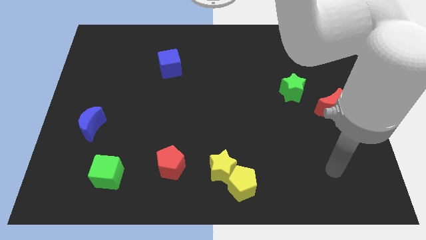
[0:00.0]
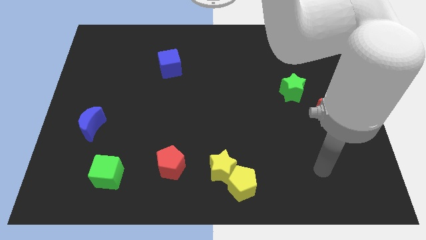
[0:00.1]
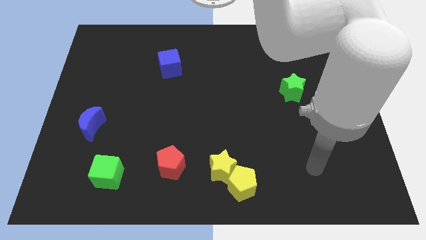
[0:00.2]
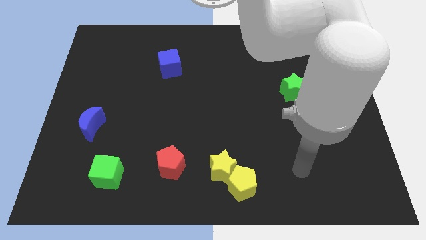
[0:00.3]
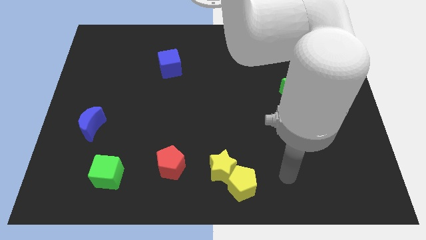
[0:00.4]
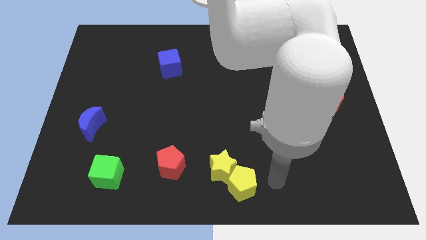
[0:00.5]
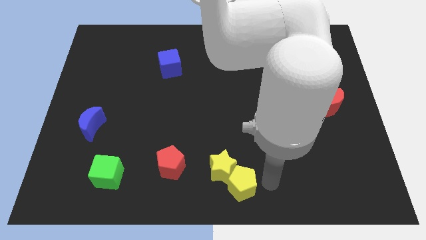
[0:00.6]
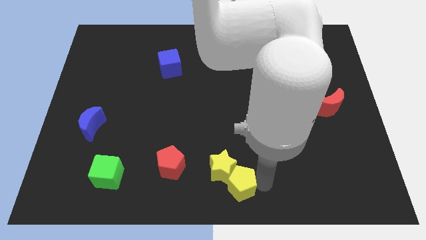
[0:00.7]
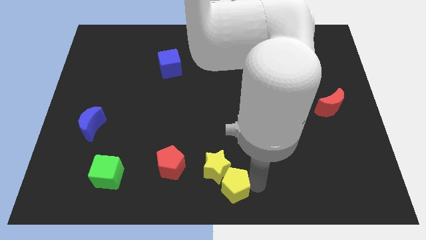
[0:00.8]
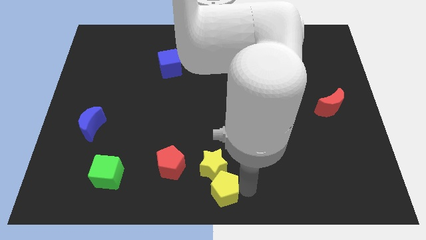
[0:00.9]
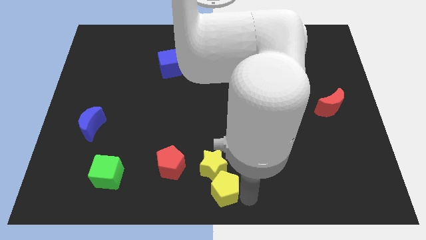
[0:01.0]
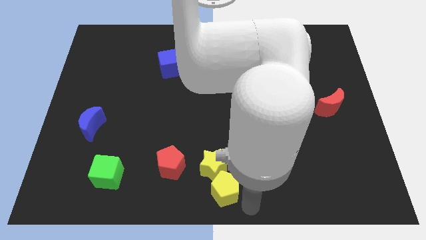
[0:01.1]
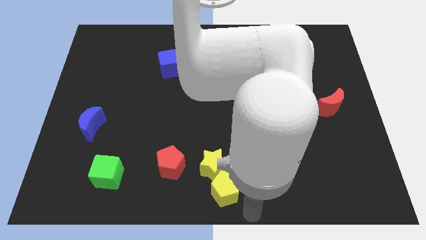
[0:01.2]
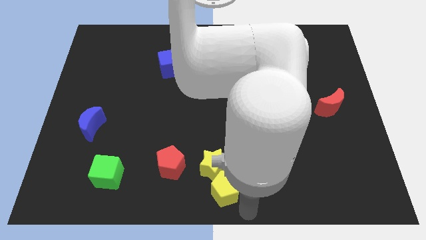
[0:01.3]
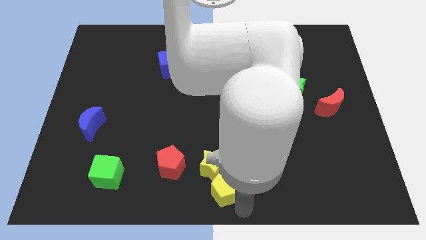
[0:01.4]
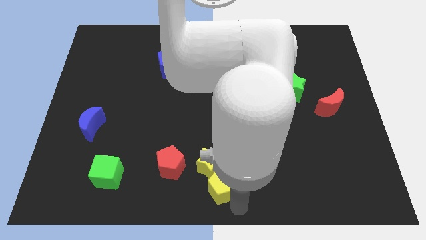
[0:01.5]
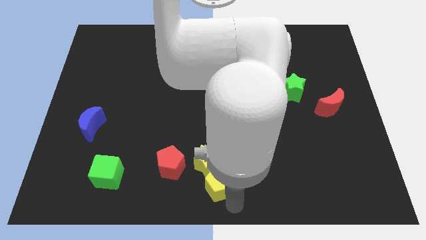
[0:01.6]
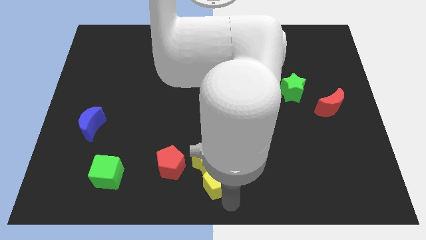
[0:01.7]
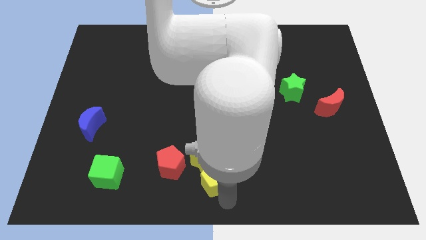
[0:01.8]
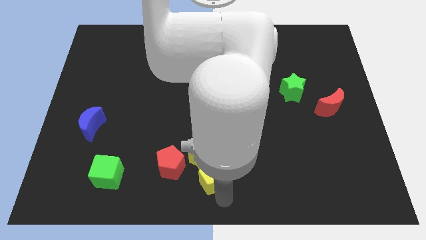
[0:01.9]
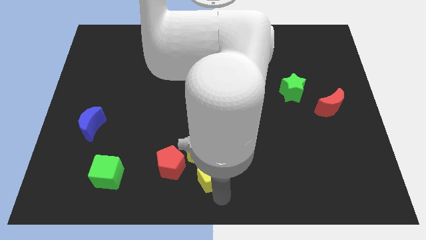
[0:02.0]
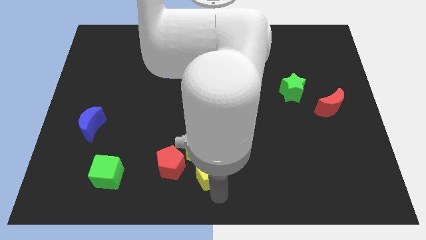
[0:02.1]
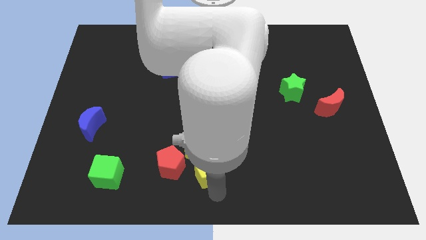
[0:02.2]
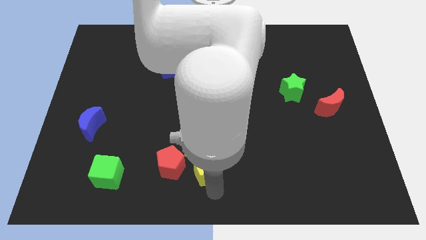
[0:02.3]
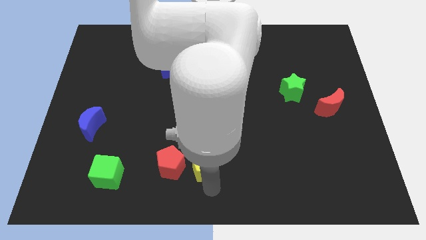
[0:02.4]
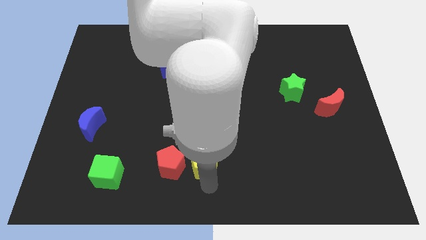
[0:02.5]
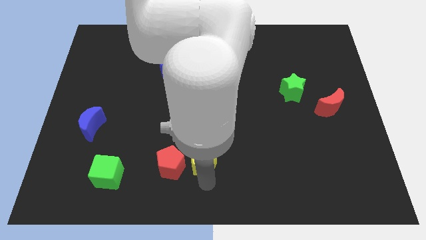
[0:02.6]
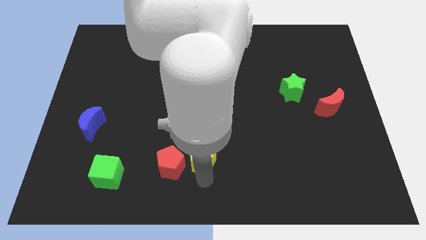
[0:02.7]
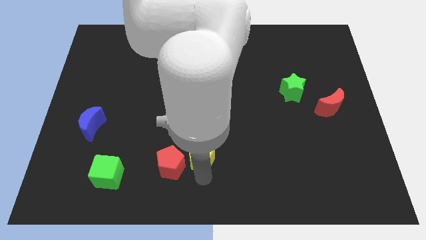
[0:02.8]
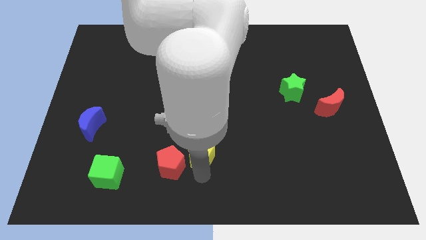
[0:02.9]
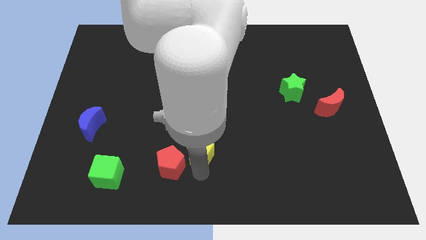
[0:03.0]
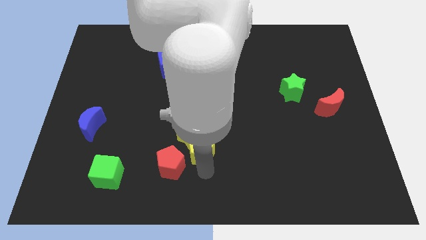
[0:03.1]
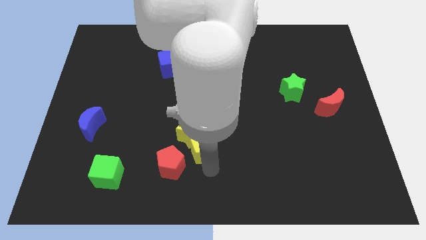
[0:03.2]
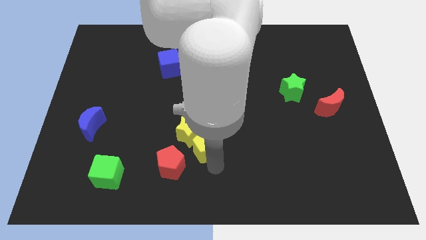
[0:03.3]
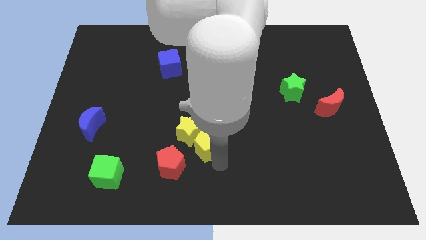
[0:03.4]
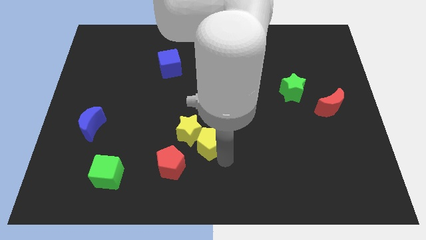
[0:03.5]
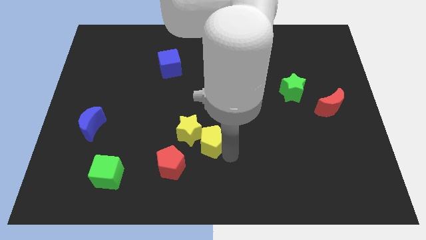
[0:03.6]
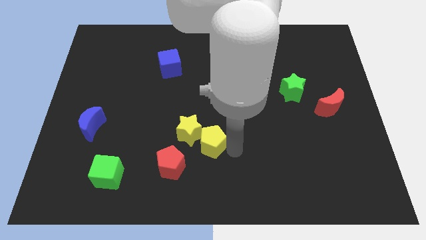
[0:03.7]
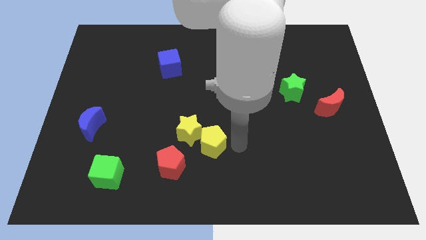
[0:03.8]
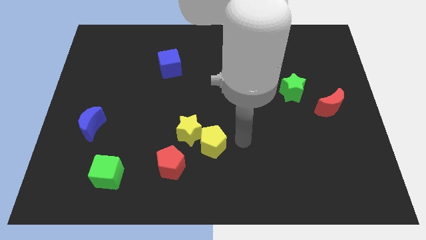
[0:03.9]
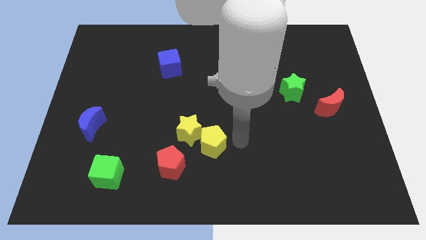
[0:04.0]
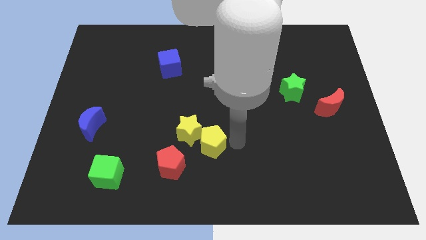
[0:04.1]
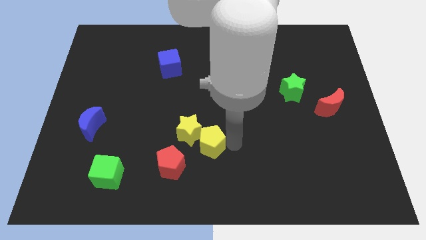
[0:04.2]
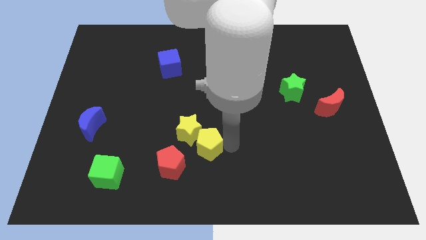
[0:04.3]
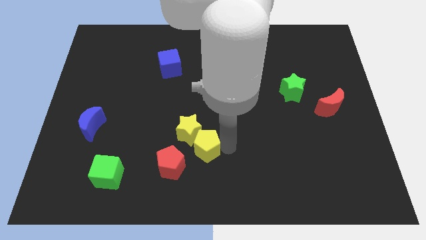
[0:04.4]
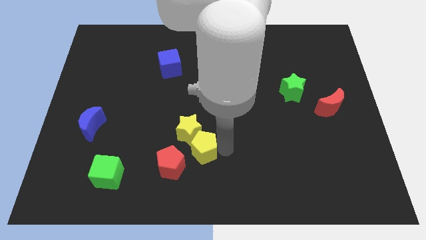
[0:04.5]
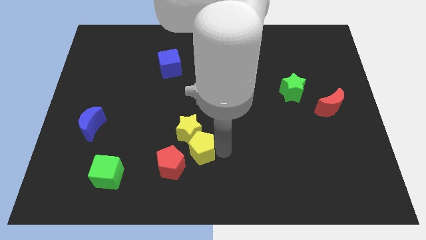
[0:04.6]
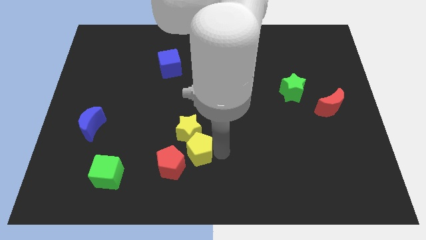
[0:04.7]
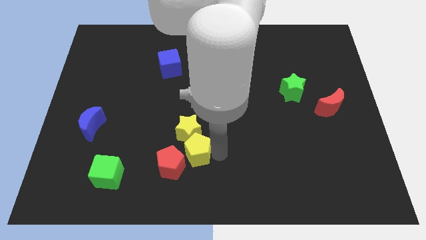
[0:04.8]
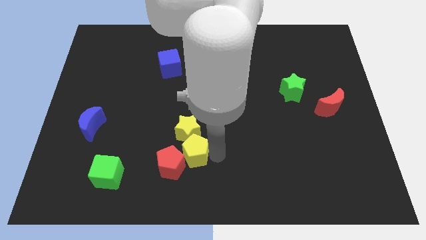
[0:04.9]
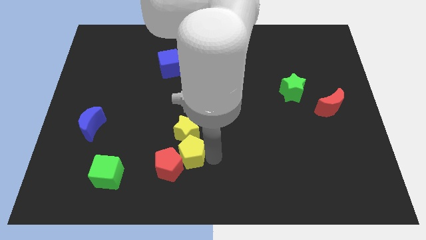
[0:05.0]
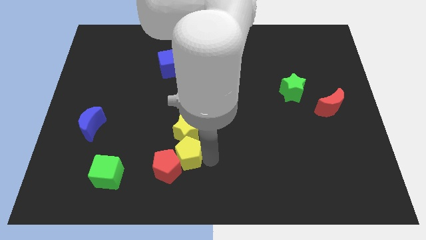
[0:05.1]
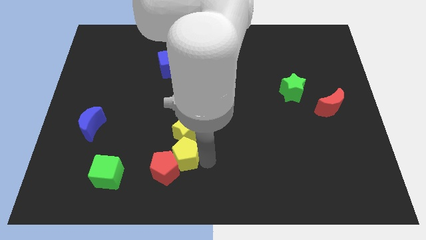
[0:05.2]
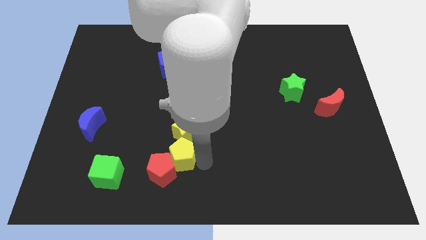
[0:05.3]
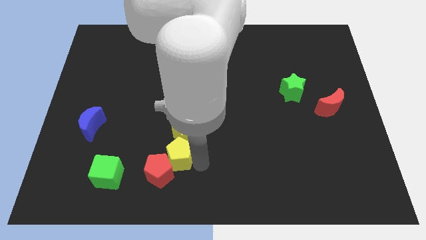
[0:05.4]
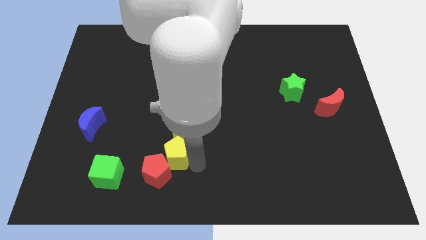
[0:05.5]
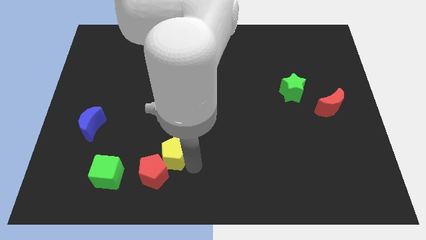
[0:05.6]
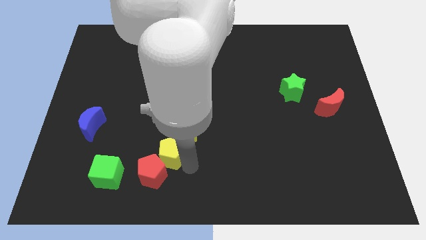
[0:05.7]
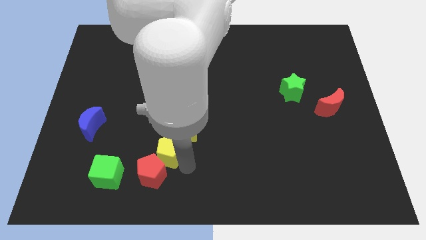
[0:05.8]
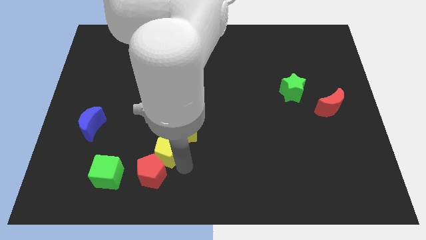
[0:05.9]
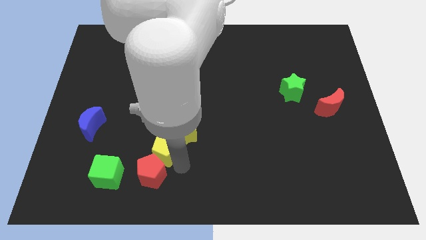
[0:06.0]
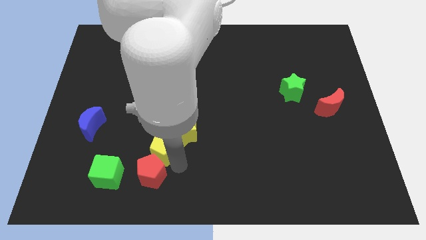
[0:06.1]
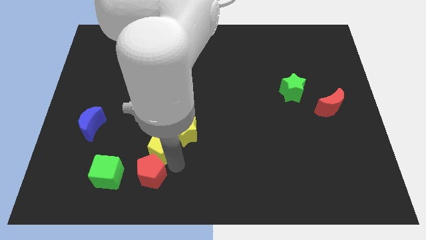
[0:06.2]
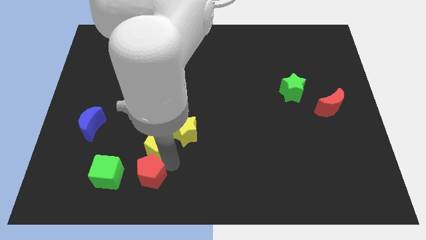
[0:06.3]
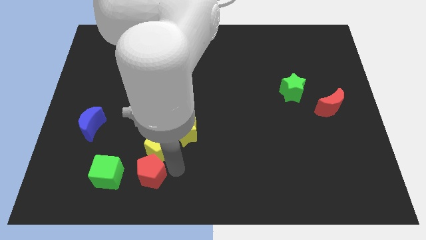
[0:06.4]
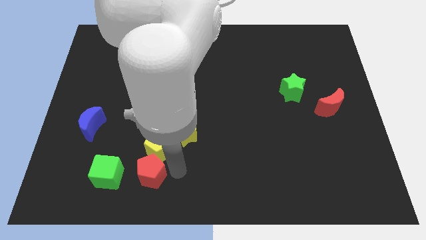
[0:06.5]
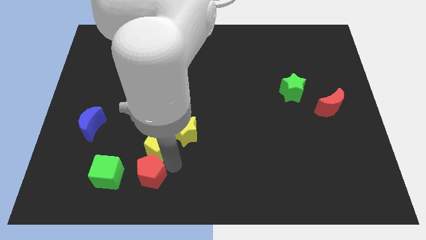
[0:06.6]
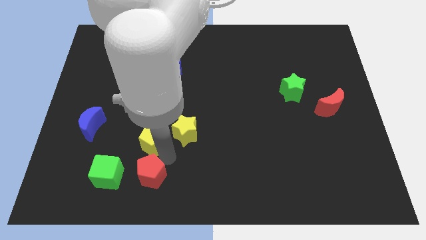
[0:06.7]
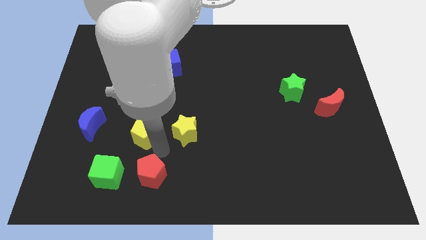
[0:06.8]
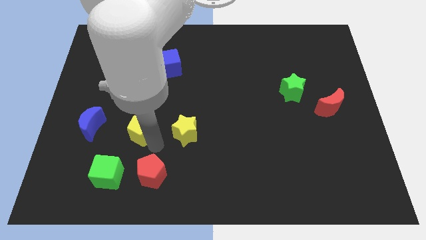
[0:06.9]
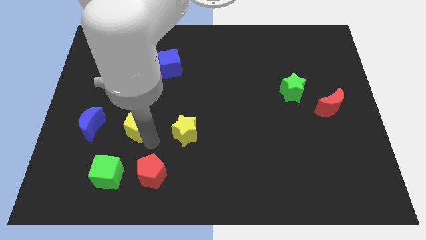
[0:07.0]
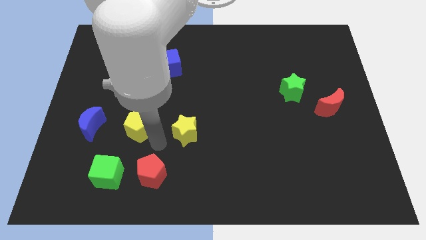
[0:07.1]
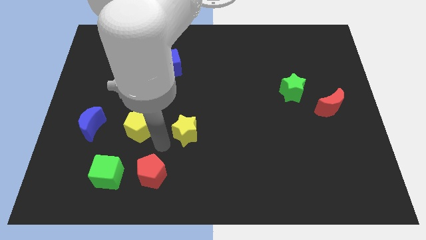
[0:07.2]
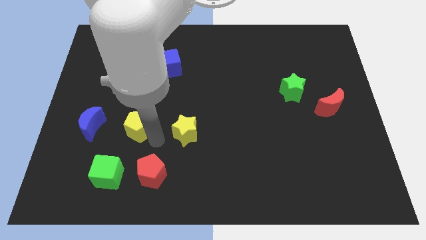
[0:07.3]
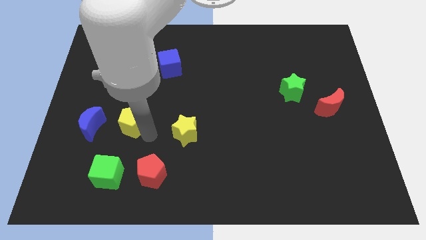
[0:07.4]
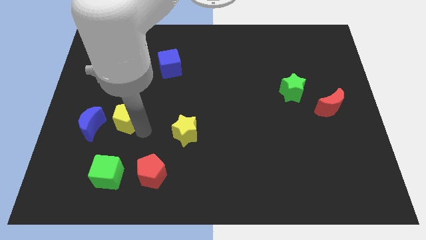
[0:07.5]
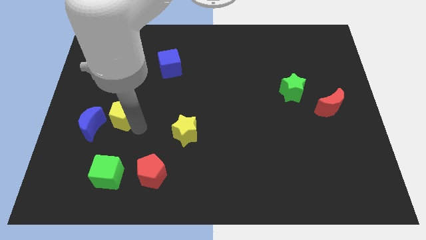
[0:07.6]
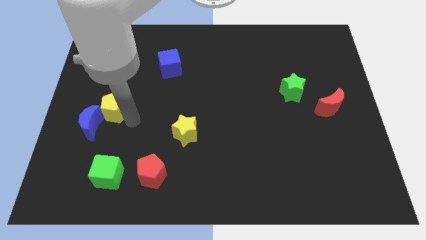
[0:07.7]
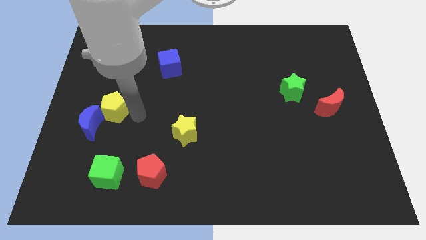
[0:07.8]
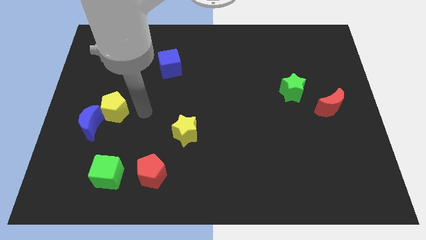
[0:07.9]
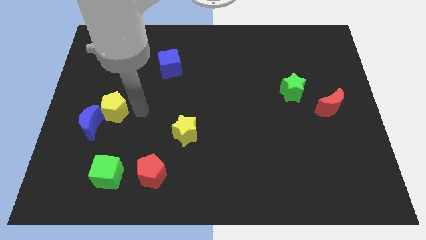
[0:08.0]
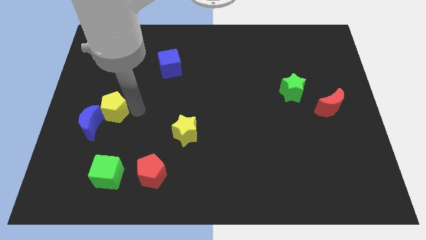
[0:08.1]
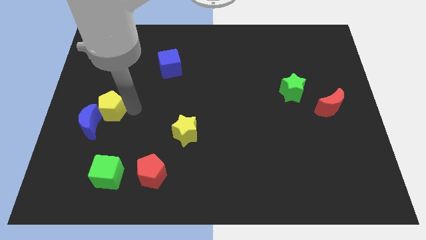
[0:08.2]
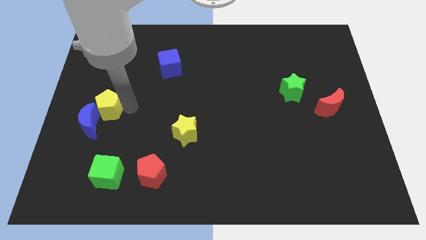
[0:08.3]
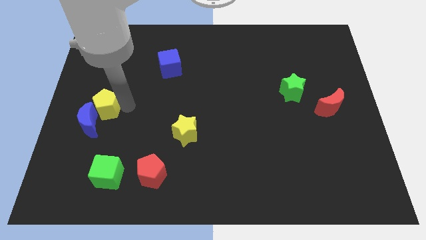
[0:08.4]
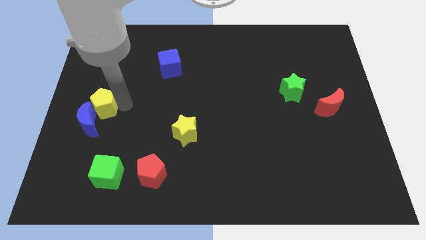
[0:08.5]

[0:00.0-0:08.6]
move the yellow pentagon to the left side of the board
